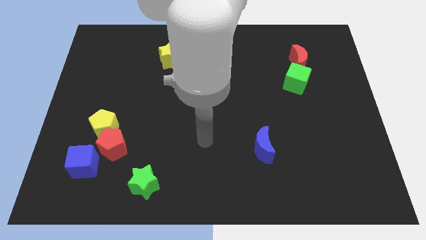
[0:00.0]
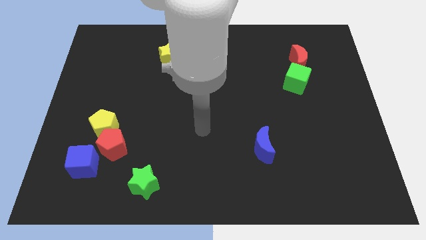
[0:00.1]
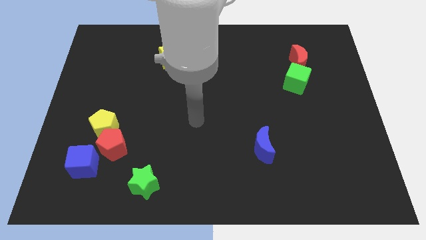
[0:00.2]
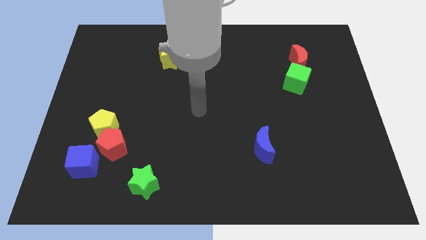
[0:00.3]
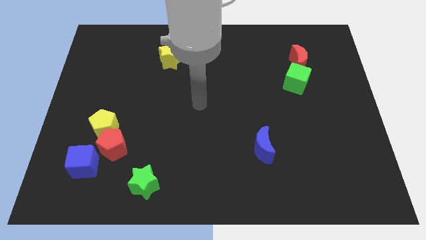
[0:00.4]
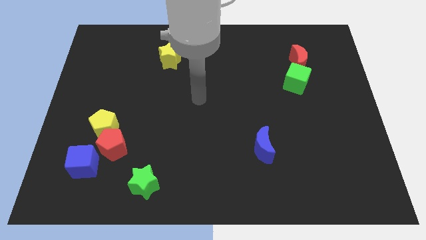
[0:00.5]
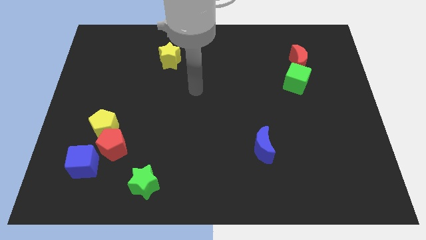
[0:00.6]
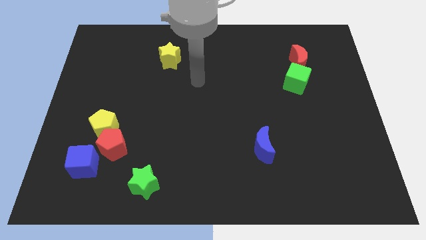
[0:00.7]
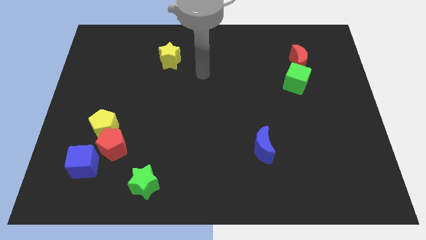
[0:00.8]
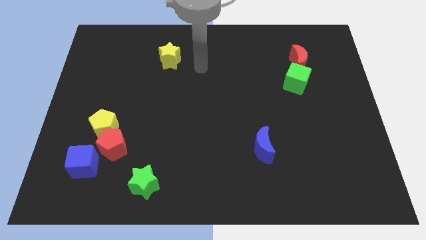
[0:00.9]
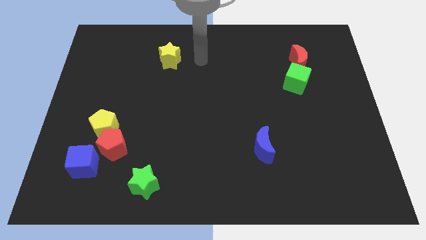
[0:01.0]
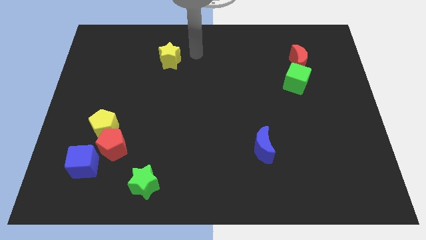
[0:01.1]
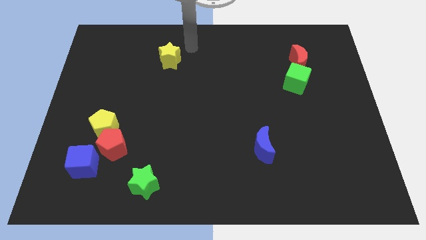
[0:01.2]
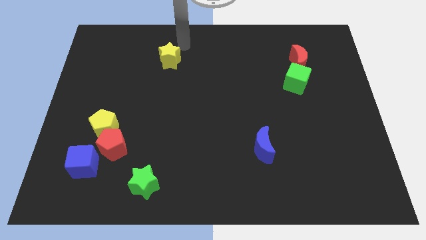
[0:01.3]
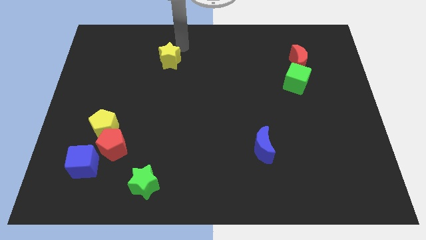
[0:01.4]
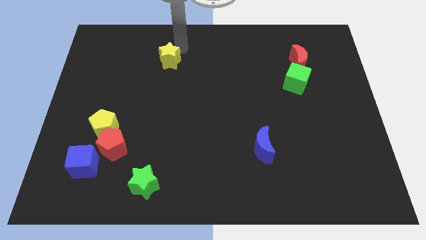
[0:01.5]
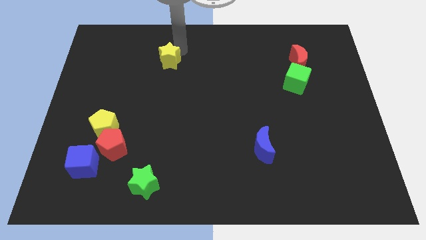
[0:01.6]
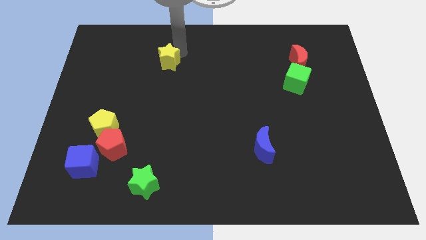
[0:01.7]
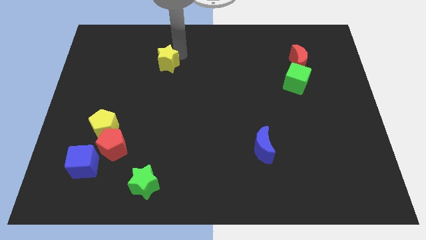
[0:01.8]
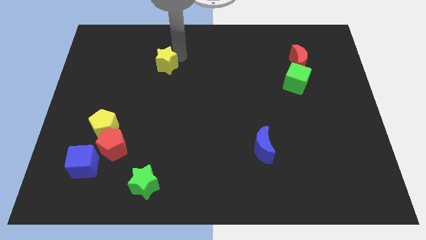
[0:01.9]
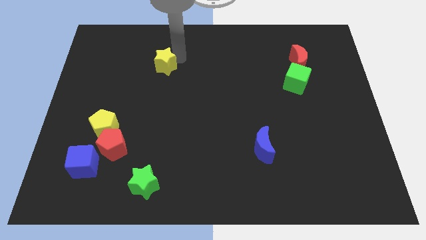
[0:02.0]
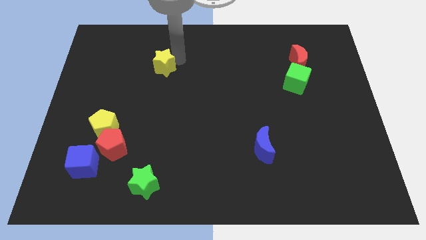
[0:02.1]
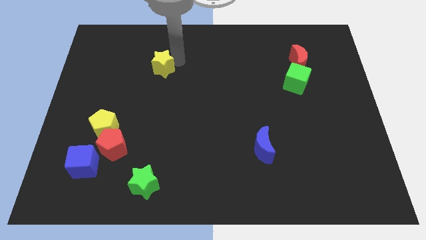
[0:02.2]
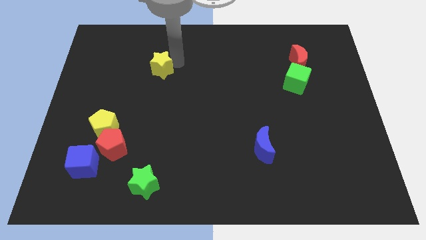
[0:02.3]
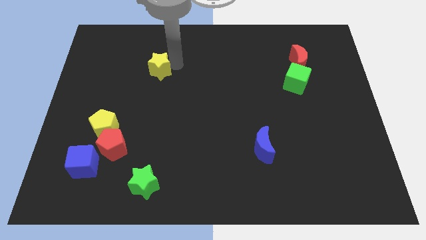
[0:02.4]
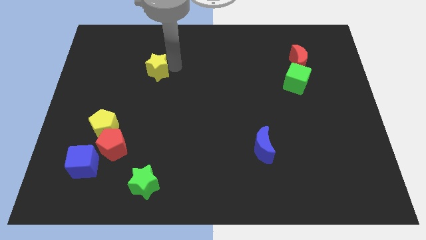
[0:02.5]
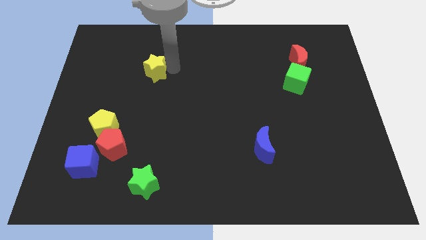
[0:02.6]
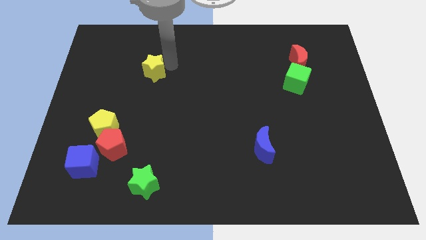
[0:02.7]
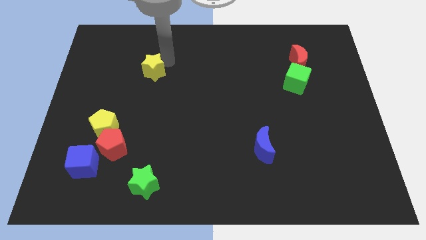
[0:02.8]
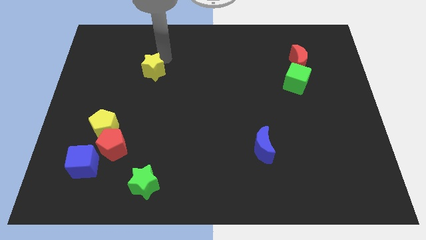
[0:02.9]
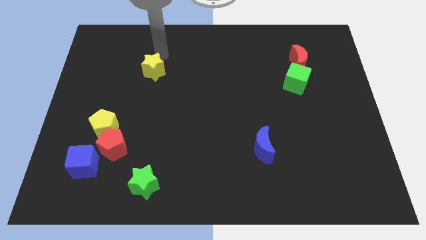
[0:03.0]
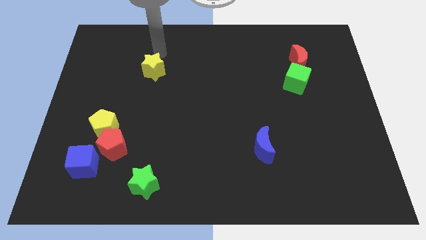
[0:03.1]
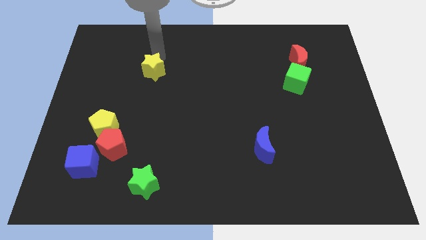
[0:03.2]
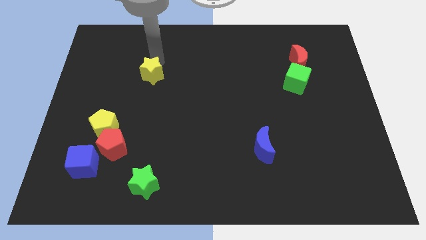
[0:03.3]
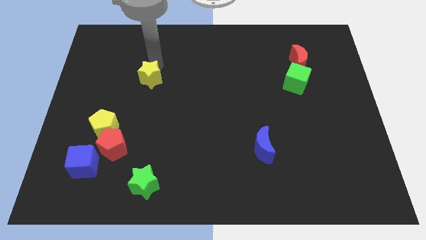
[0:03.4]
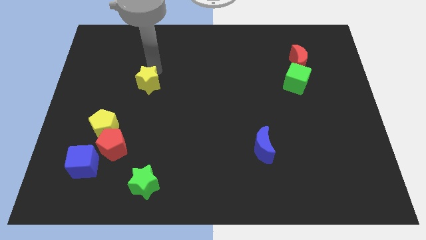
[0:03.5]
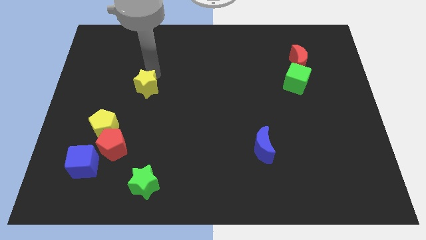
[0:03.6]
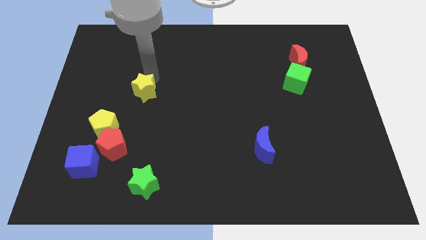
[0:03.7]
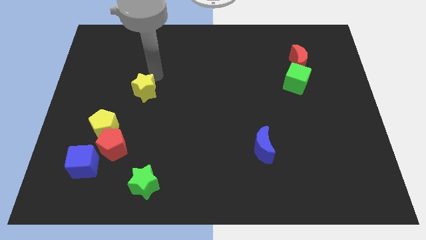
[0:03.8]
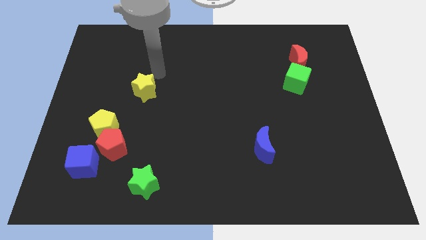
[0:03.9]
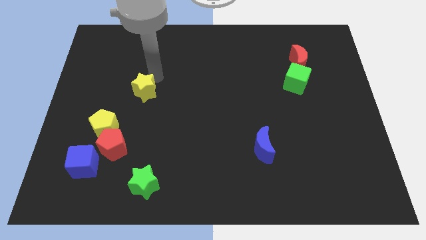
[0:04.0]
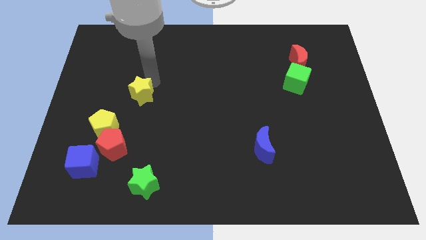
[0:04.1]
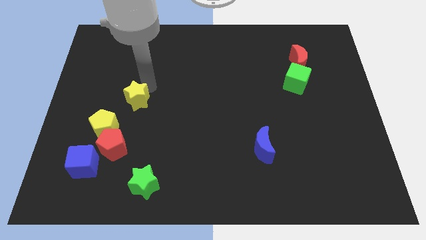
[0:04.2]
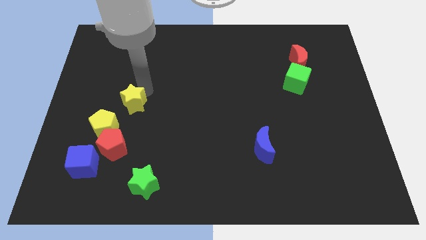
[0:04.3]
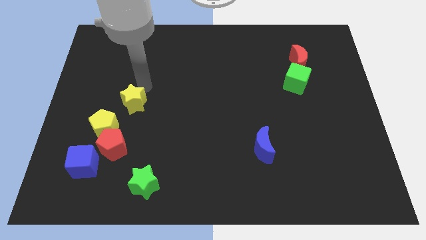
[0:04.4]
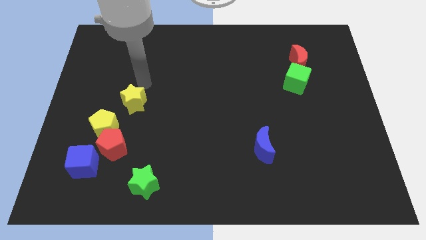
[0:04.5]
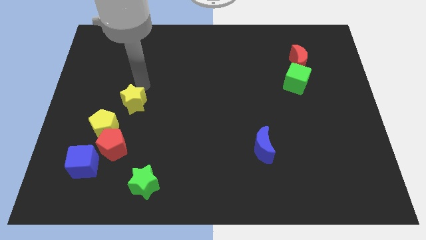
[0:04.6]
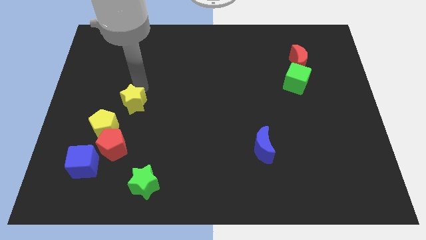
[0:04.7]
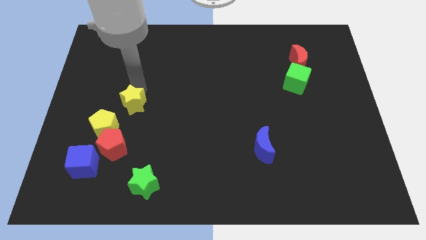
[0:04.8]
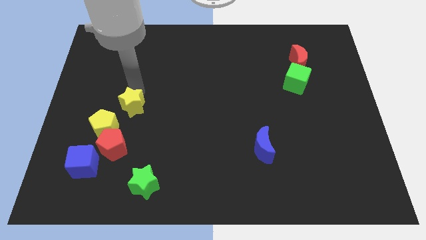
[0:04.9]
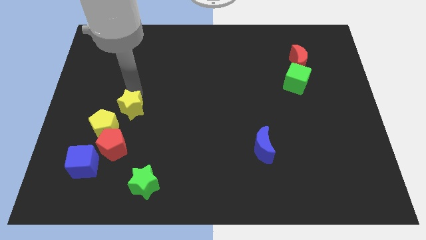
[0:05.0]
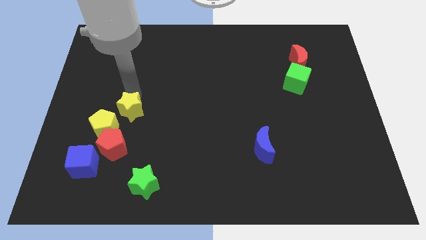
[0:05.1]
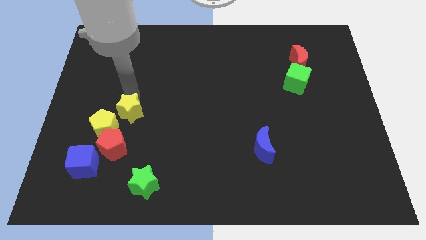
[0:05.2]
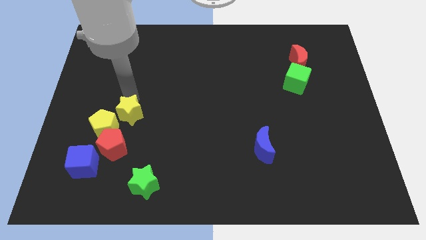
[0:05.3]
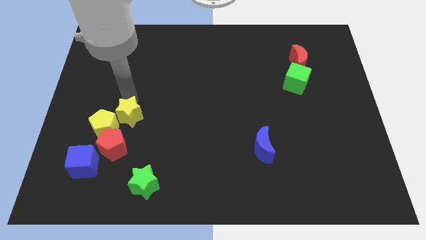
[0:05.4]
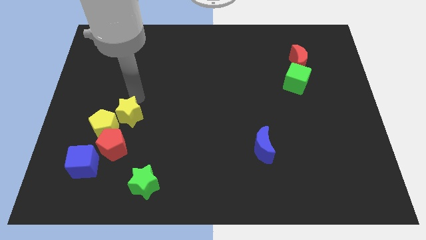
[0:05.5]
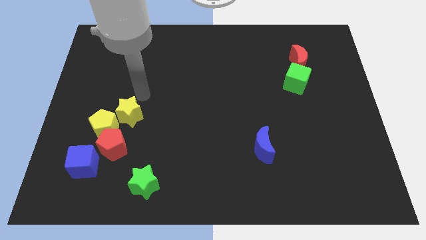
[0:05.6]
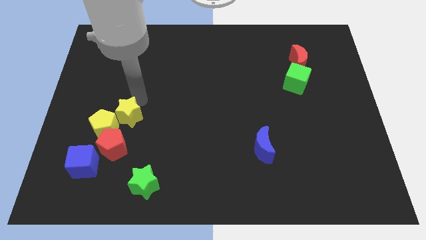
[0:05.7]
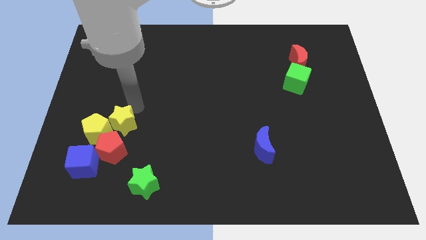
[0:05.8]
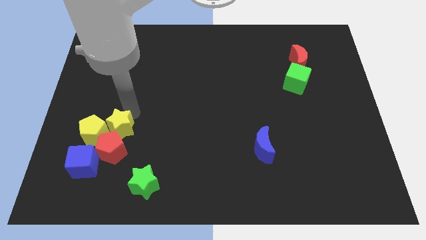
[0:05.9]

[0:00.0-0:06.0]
slide the yellow star towards the red pentagon

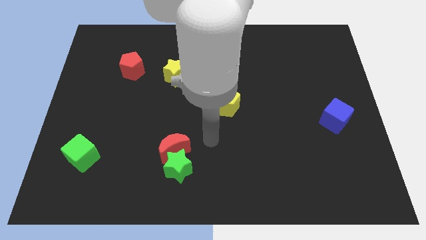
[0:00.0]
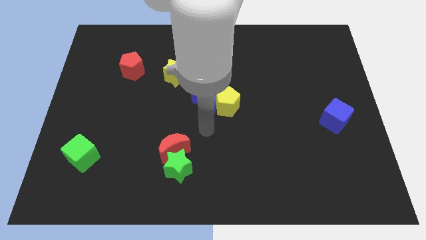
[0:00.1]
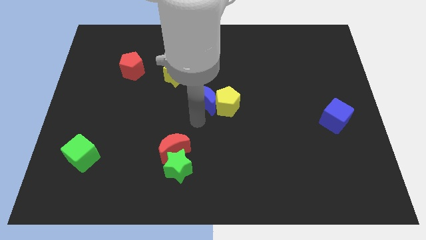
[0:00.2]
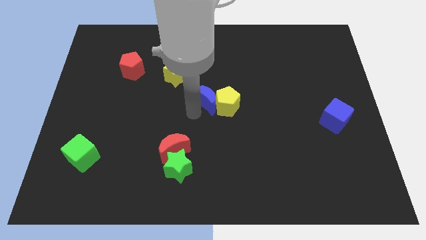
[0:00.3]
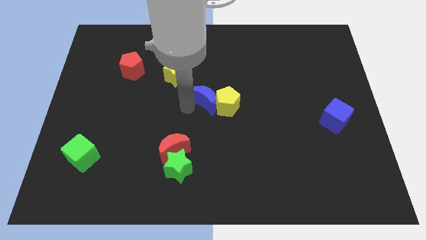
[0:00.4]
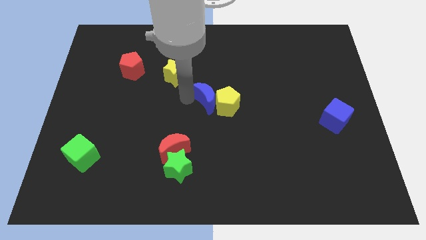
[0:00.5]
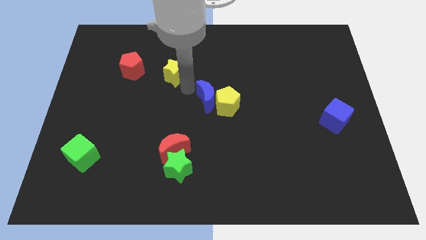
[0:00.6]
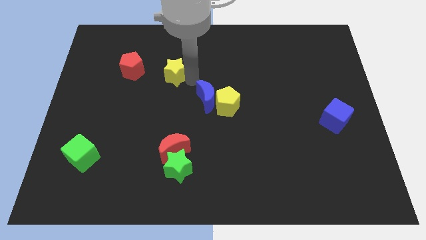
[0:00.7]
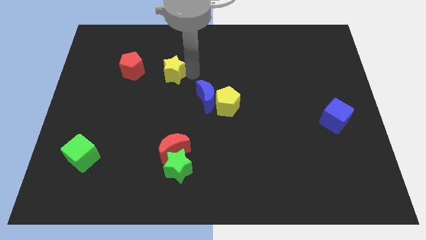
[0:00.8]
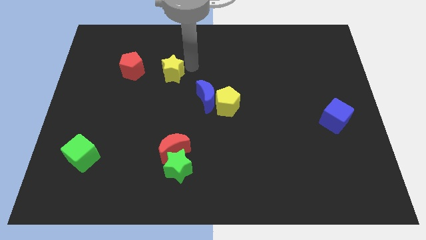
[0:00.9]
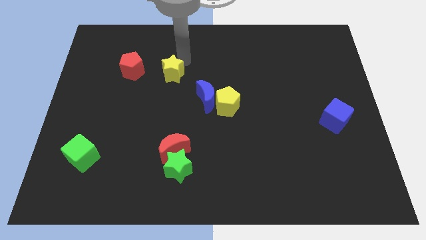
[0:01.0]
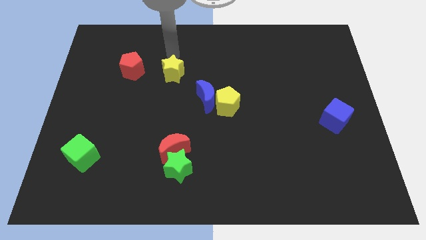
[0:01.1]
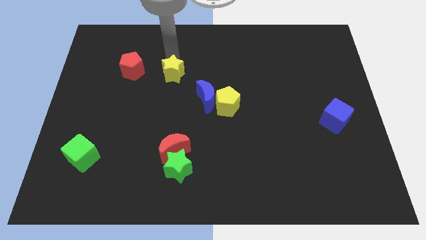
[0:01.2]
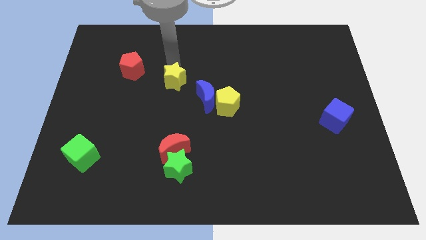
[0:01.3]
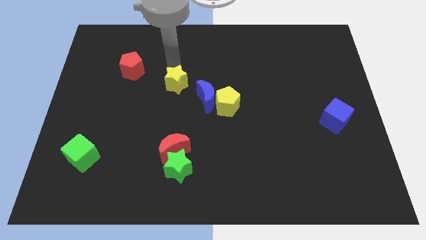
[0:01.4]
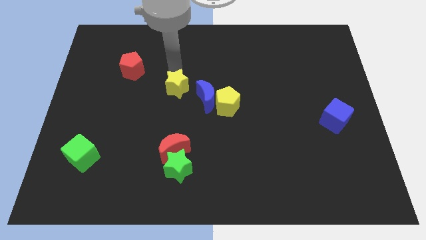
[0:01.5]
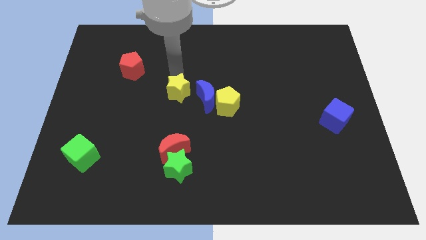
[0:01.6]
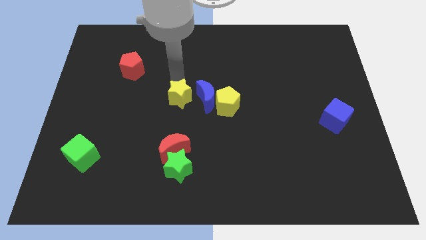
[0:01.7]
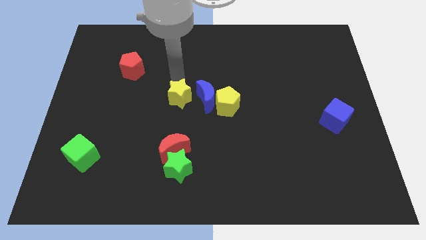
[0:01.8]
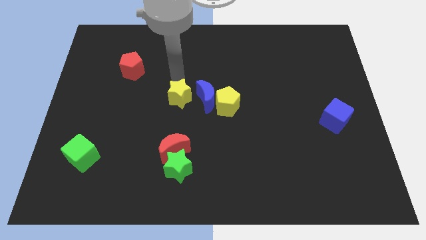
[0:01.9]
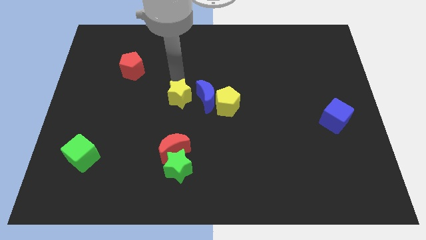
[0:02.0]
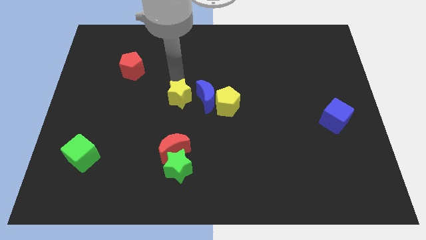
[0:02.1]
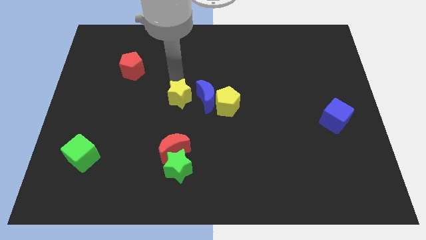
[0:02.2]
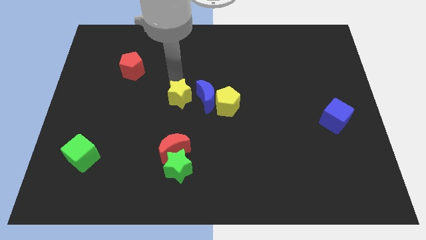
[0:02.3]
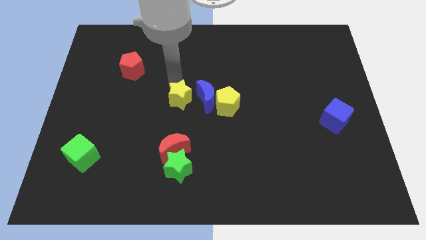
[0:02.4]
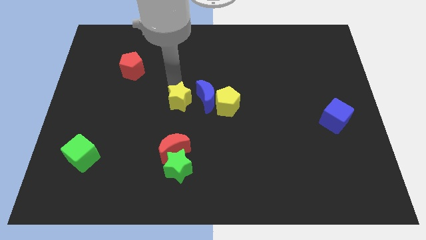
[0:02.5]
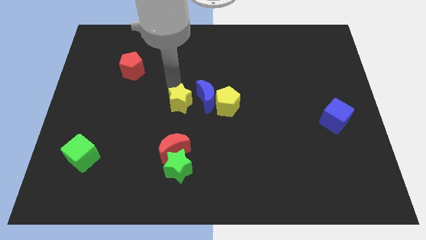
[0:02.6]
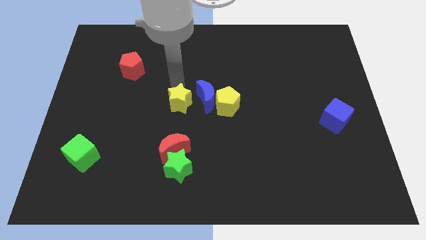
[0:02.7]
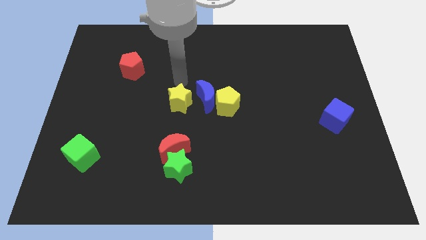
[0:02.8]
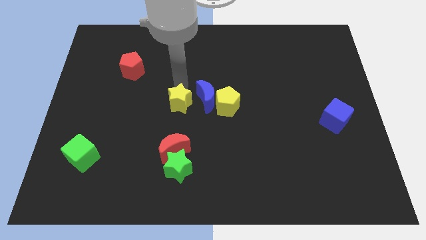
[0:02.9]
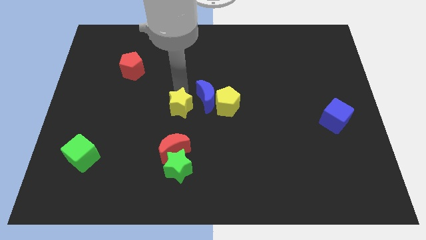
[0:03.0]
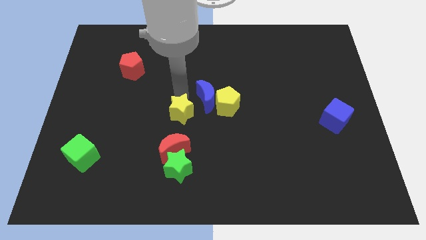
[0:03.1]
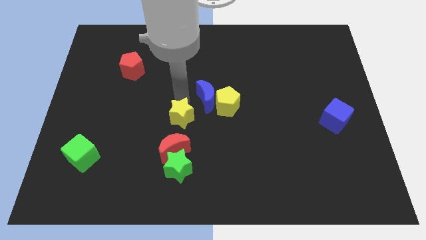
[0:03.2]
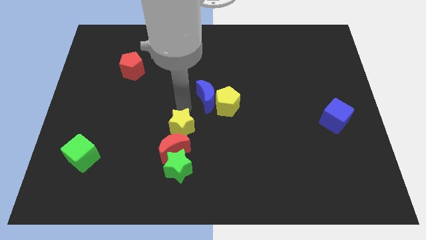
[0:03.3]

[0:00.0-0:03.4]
slide the yellow star to the red moon
